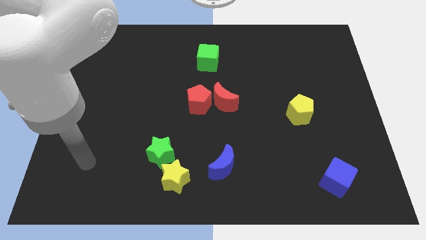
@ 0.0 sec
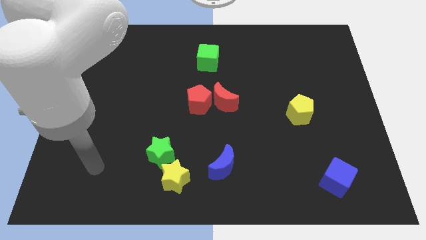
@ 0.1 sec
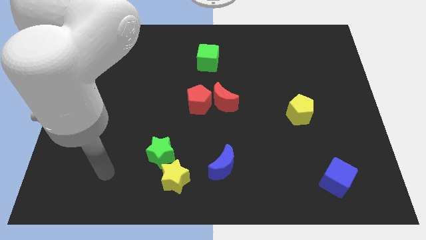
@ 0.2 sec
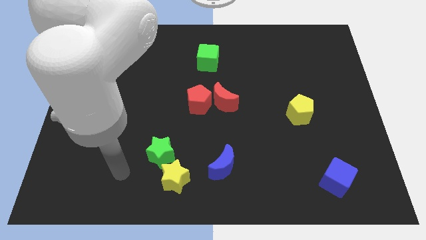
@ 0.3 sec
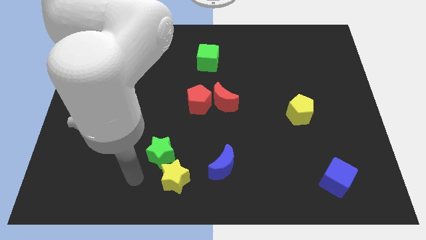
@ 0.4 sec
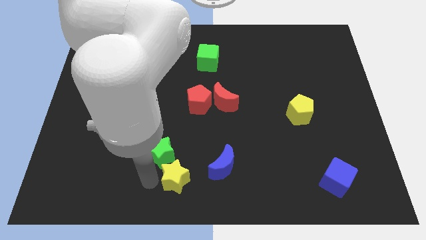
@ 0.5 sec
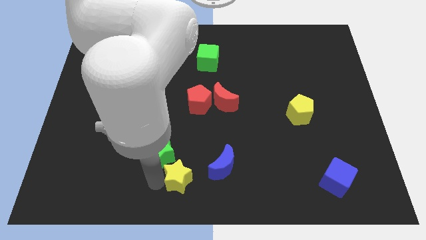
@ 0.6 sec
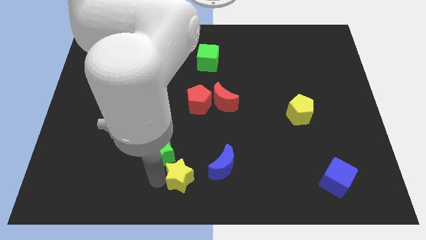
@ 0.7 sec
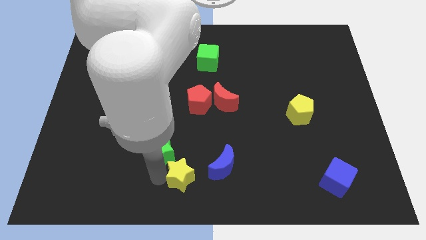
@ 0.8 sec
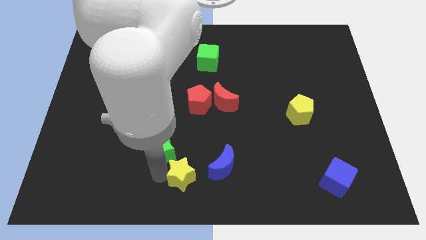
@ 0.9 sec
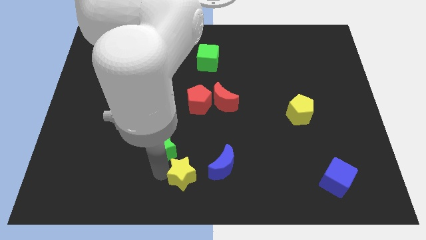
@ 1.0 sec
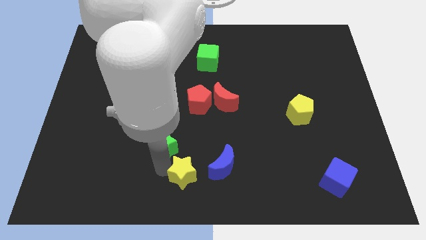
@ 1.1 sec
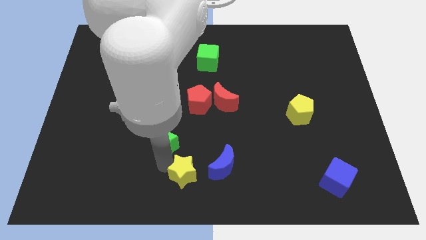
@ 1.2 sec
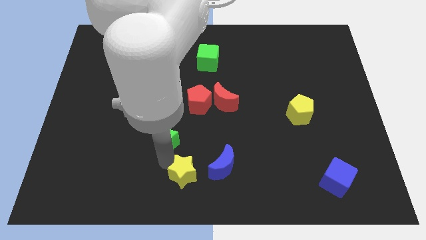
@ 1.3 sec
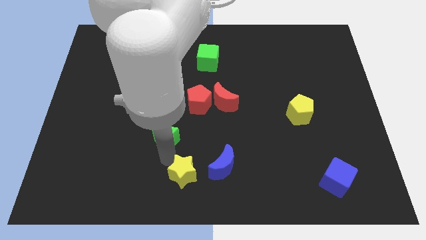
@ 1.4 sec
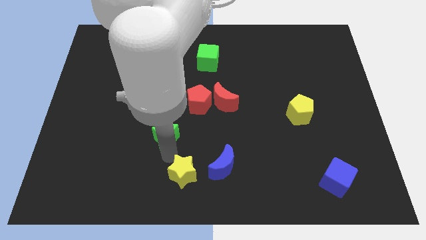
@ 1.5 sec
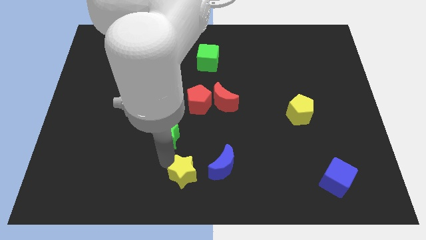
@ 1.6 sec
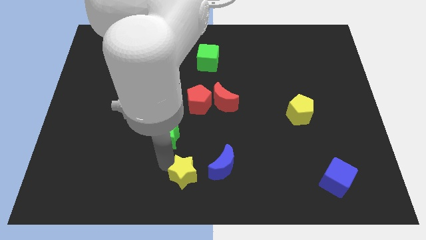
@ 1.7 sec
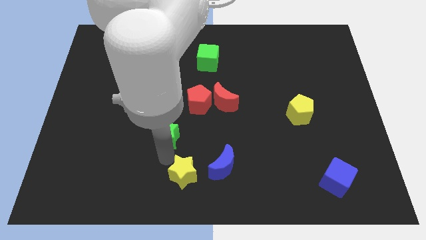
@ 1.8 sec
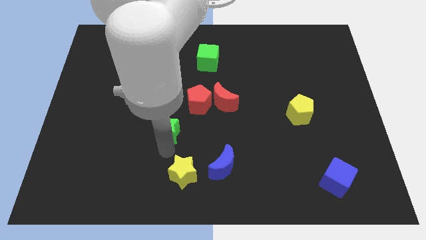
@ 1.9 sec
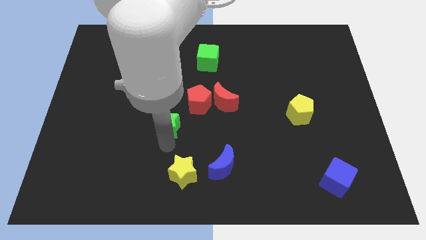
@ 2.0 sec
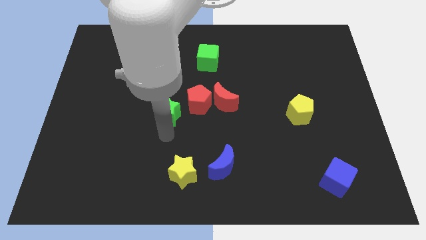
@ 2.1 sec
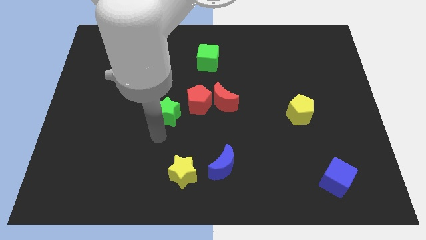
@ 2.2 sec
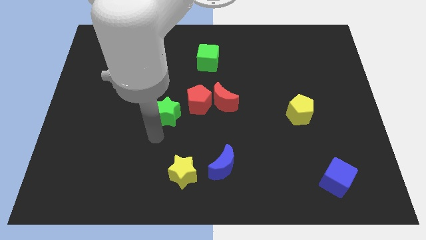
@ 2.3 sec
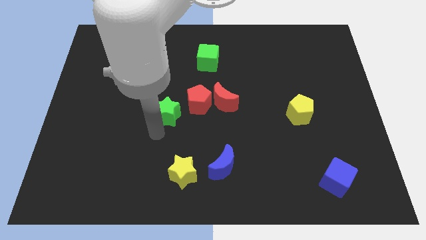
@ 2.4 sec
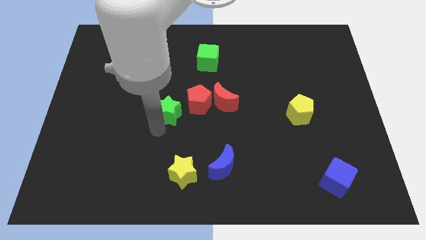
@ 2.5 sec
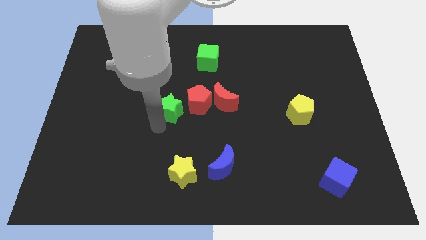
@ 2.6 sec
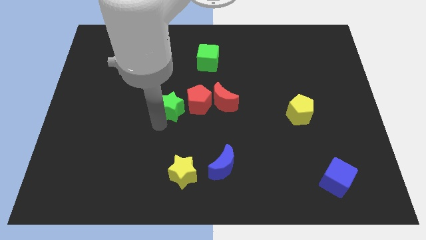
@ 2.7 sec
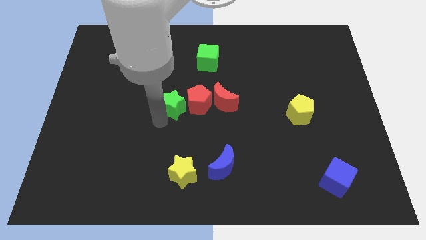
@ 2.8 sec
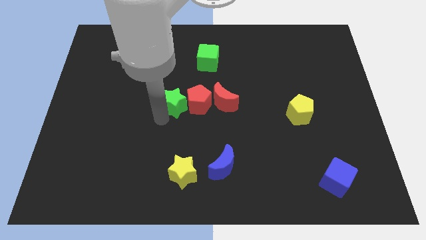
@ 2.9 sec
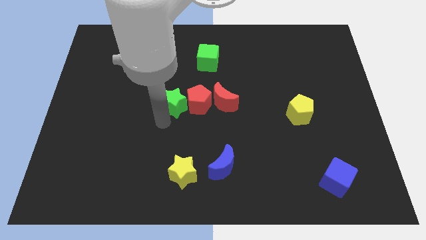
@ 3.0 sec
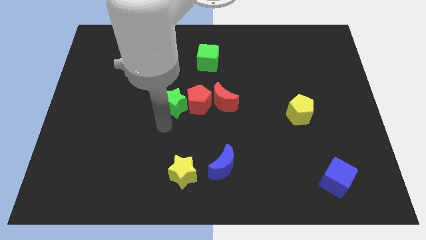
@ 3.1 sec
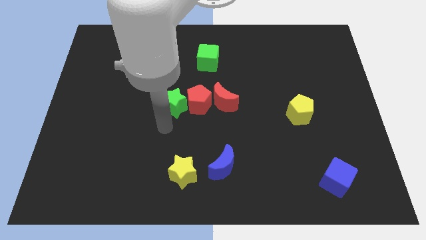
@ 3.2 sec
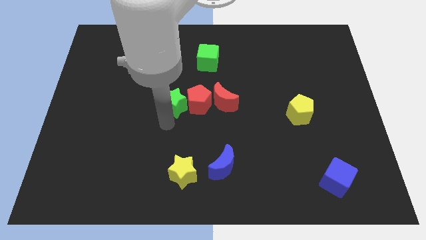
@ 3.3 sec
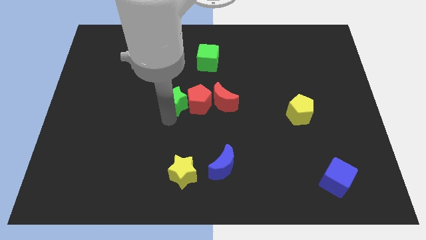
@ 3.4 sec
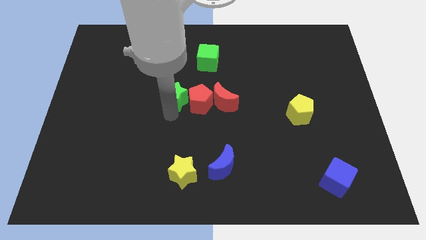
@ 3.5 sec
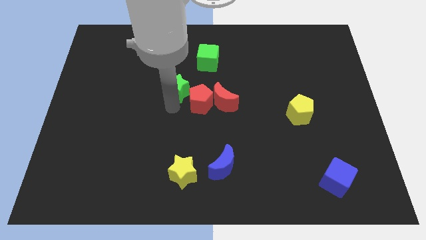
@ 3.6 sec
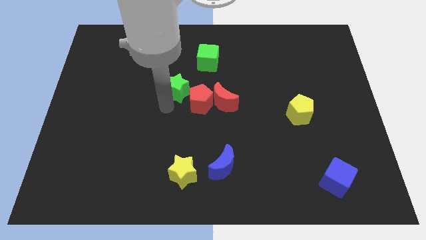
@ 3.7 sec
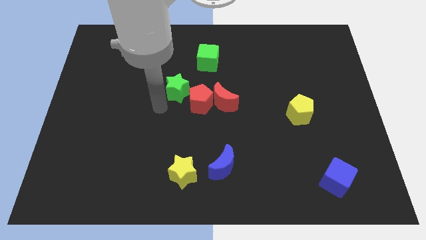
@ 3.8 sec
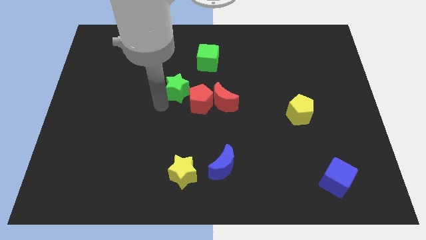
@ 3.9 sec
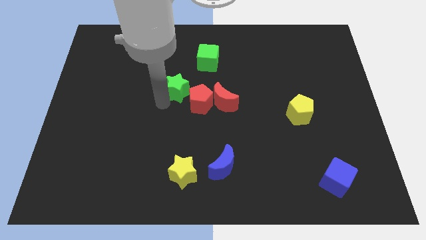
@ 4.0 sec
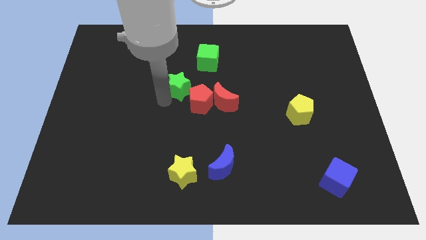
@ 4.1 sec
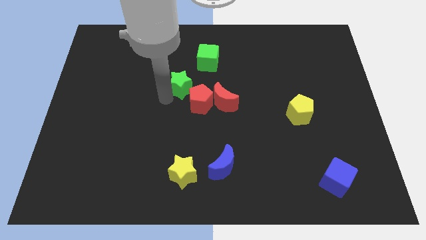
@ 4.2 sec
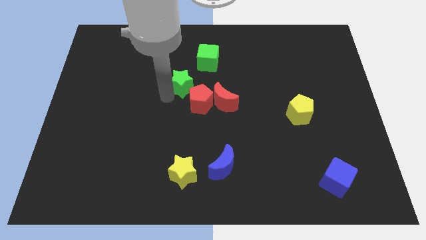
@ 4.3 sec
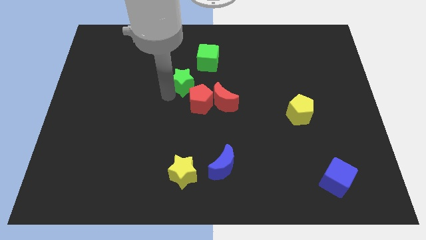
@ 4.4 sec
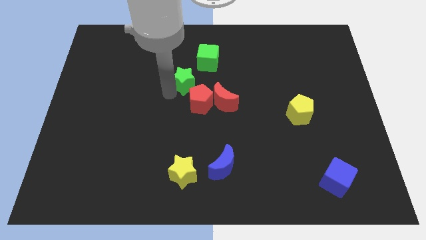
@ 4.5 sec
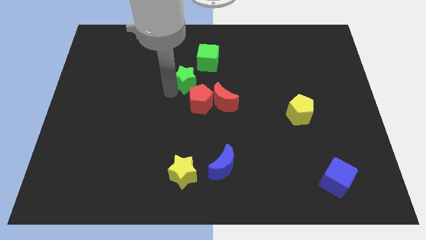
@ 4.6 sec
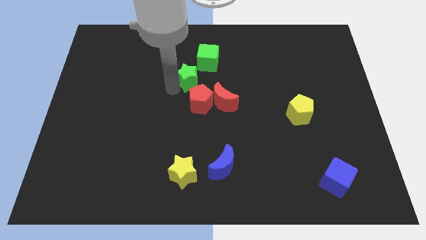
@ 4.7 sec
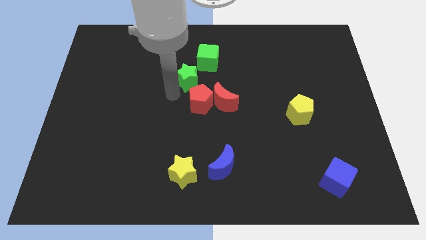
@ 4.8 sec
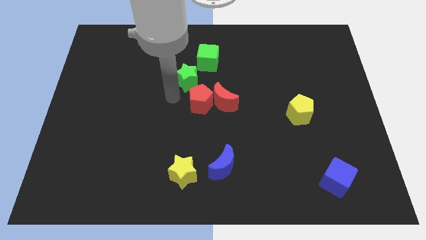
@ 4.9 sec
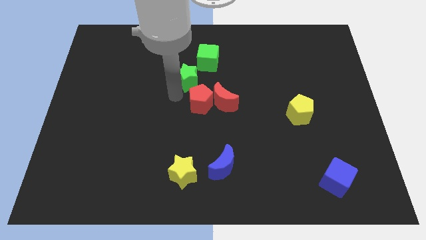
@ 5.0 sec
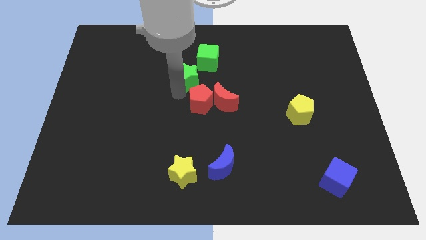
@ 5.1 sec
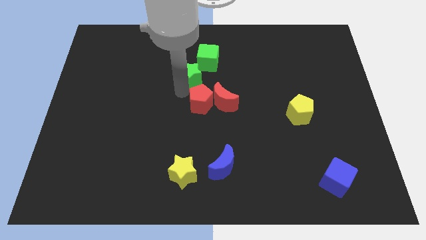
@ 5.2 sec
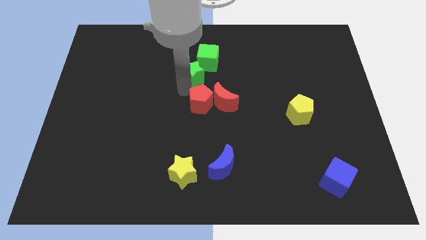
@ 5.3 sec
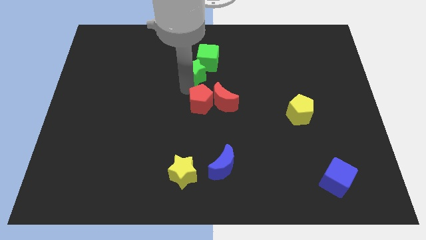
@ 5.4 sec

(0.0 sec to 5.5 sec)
move the green star to the green cube

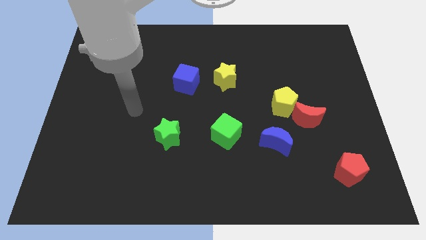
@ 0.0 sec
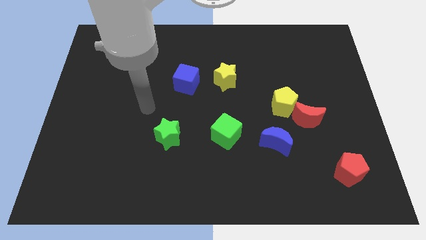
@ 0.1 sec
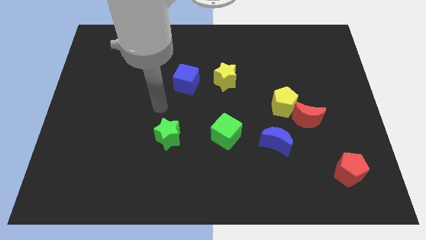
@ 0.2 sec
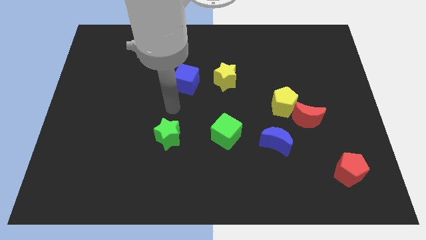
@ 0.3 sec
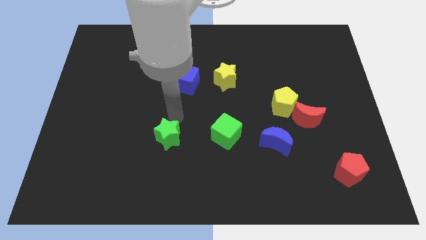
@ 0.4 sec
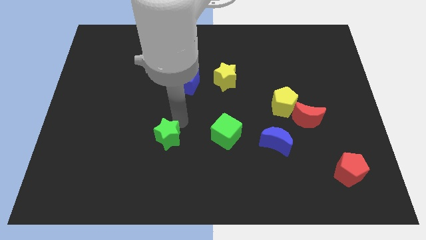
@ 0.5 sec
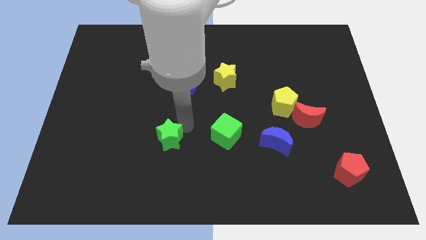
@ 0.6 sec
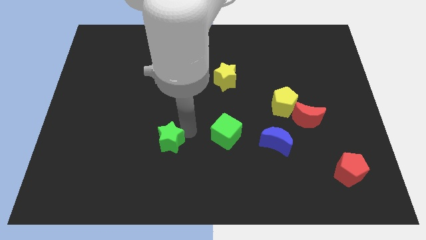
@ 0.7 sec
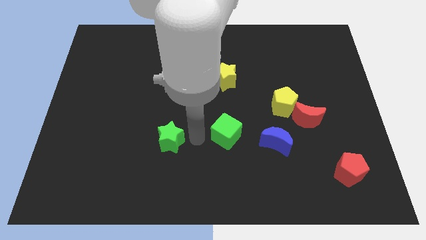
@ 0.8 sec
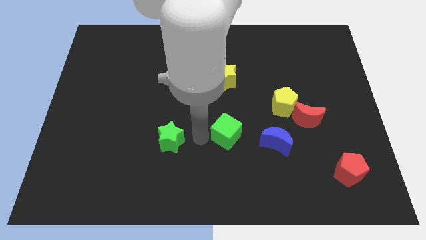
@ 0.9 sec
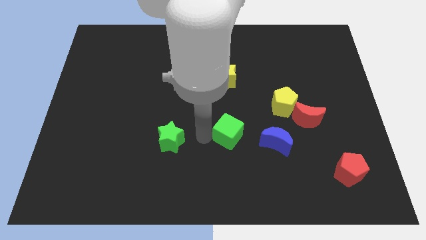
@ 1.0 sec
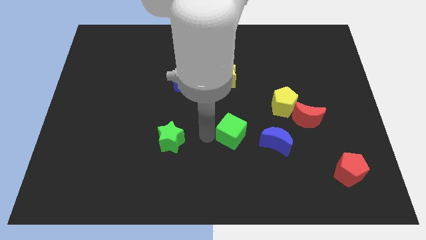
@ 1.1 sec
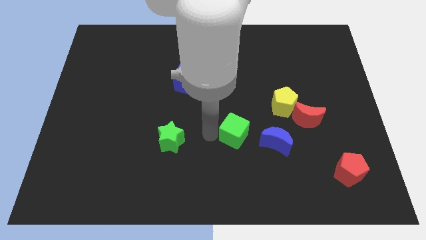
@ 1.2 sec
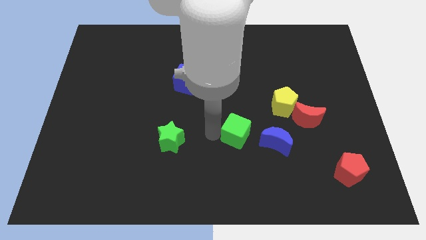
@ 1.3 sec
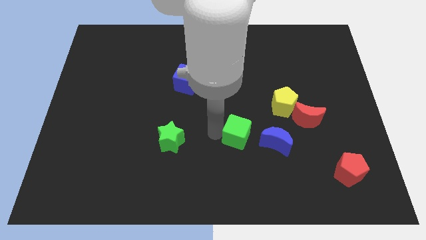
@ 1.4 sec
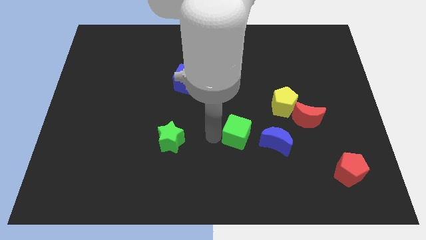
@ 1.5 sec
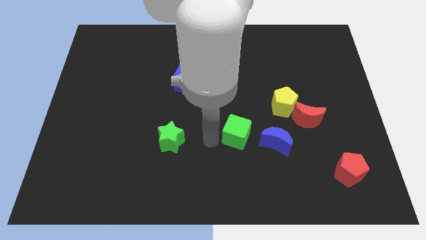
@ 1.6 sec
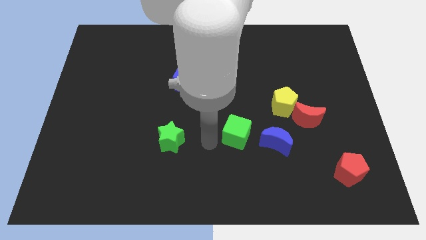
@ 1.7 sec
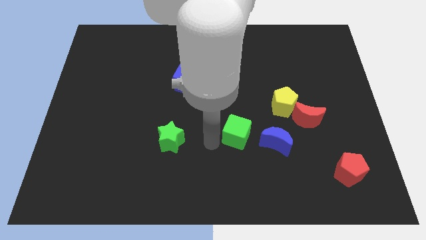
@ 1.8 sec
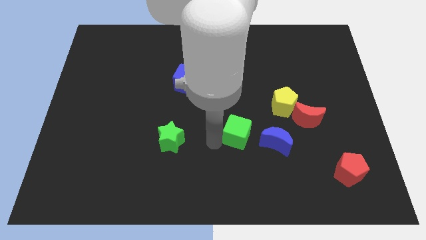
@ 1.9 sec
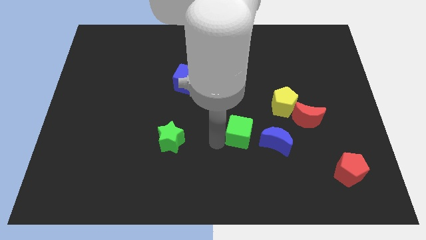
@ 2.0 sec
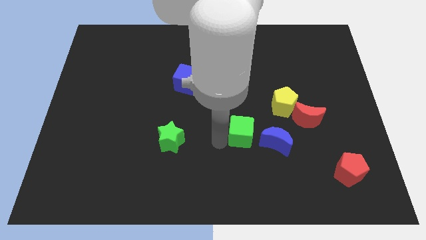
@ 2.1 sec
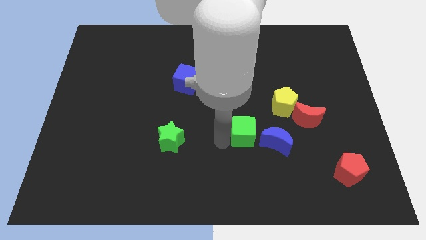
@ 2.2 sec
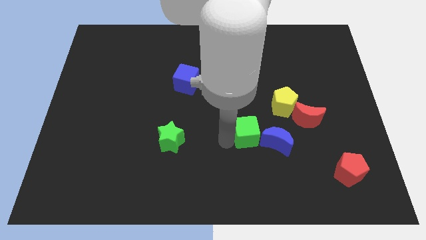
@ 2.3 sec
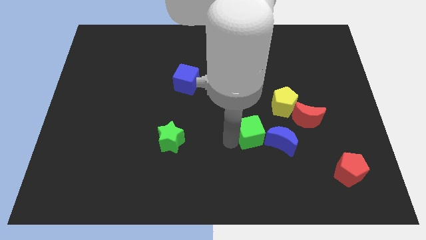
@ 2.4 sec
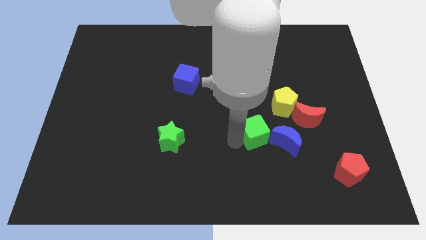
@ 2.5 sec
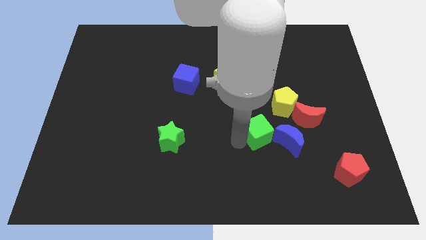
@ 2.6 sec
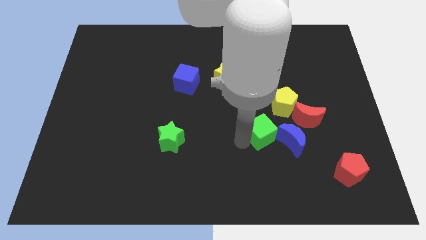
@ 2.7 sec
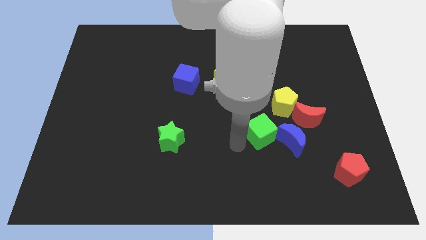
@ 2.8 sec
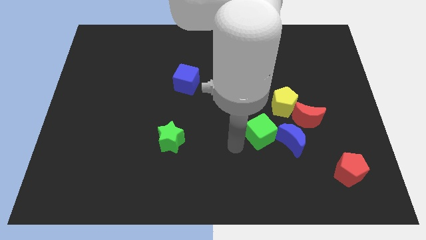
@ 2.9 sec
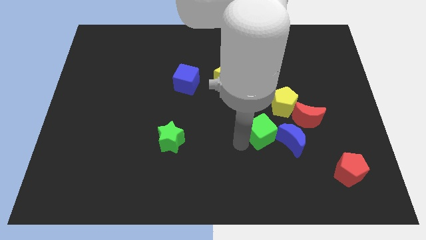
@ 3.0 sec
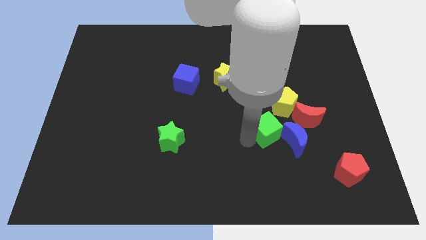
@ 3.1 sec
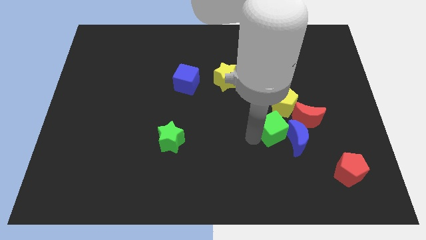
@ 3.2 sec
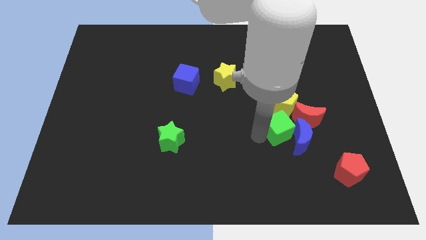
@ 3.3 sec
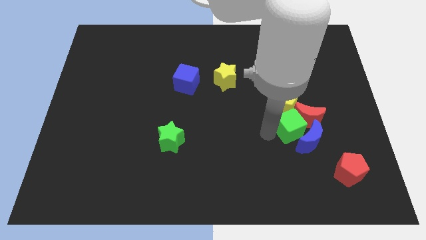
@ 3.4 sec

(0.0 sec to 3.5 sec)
put the green cube close to the red moon
